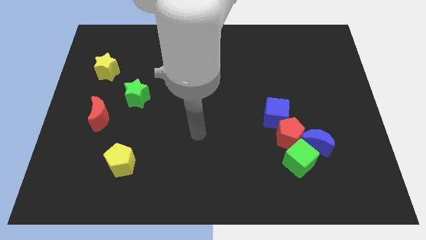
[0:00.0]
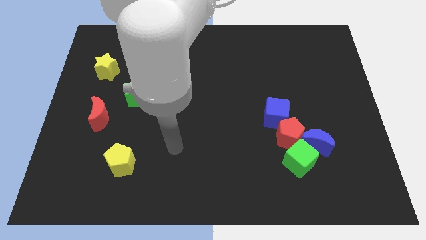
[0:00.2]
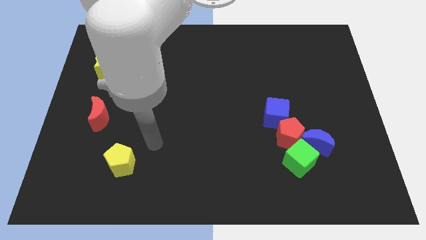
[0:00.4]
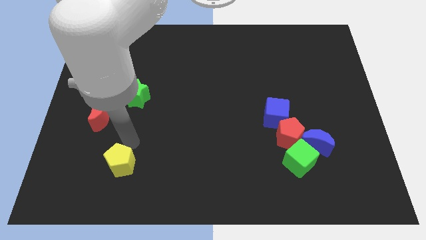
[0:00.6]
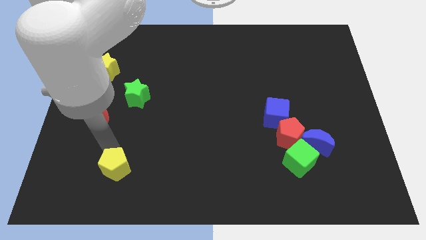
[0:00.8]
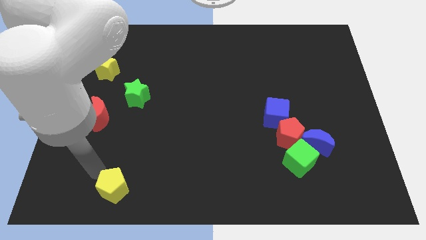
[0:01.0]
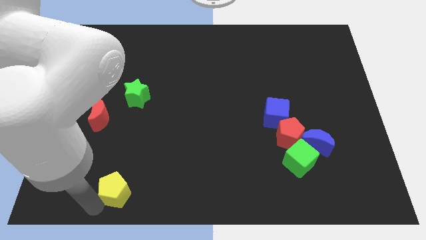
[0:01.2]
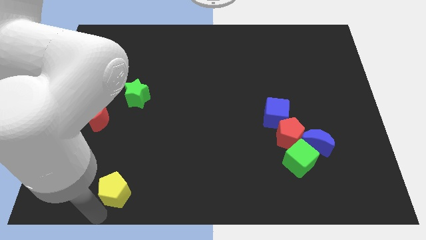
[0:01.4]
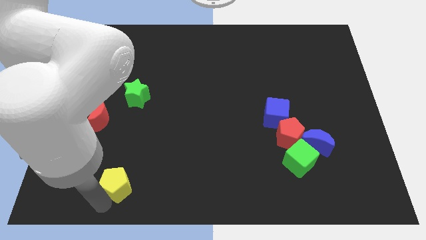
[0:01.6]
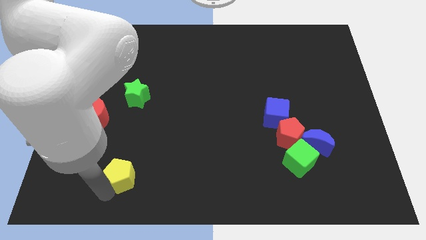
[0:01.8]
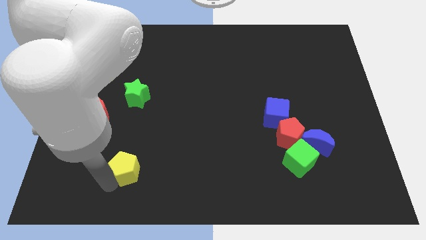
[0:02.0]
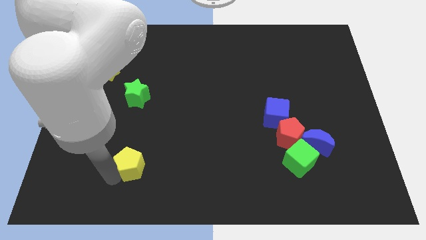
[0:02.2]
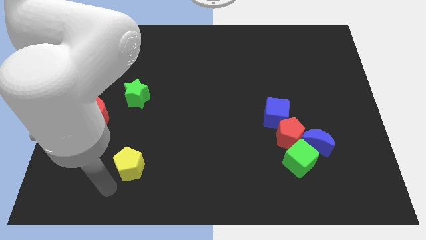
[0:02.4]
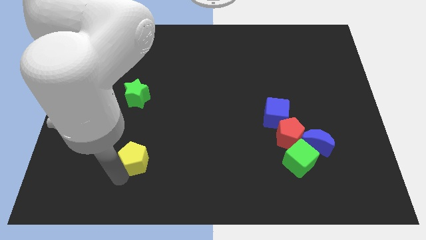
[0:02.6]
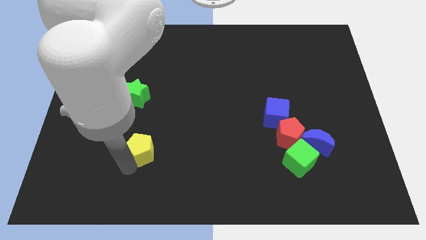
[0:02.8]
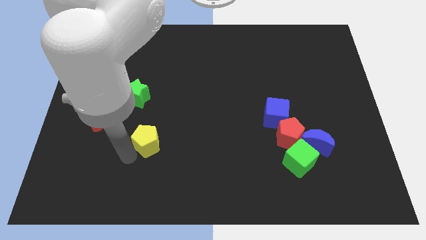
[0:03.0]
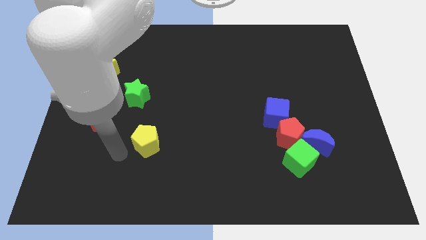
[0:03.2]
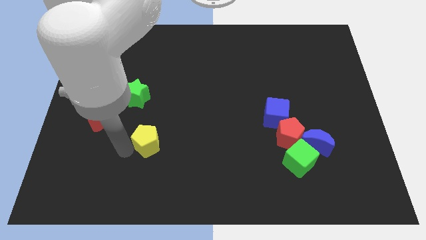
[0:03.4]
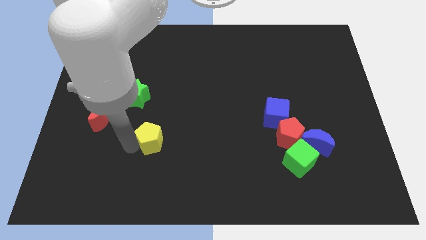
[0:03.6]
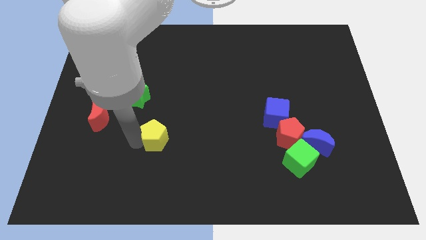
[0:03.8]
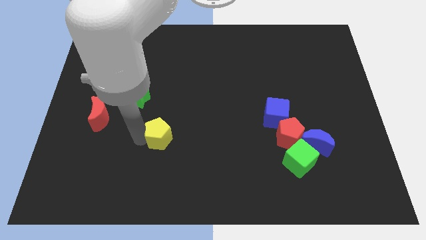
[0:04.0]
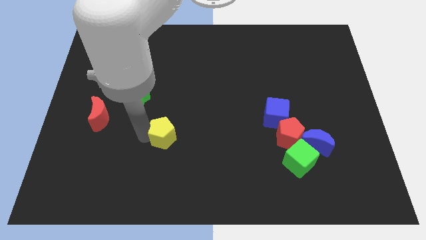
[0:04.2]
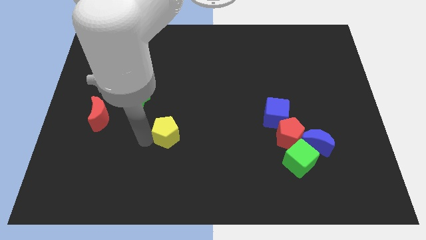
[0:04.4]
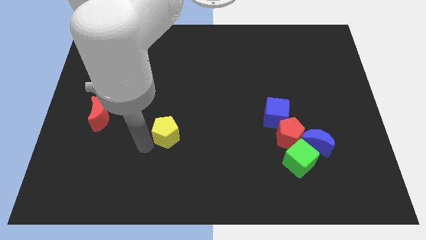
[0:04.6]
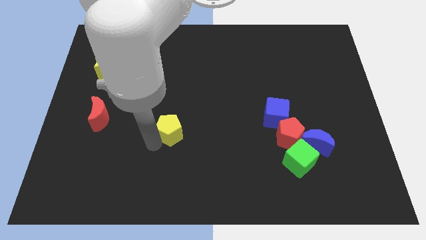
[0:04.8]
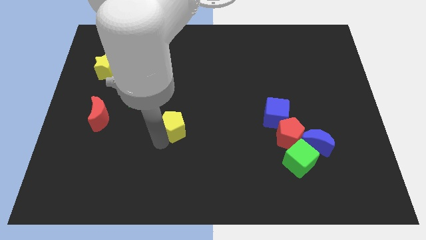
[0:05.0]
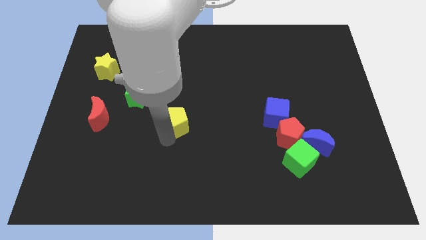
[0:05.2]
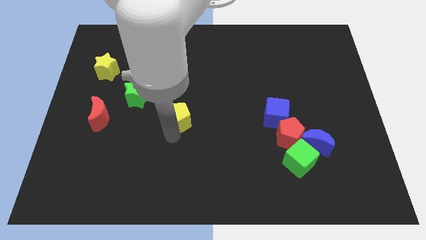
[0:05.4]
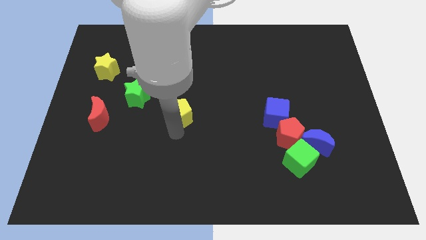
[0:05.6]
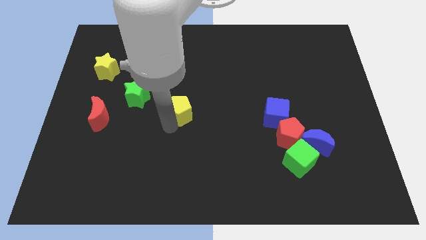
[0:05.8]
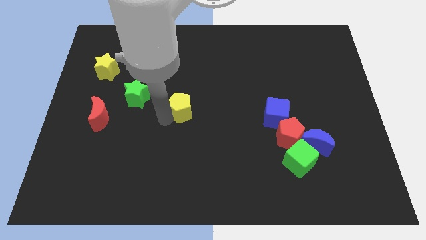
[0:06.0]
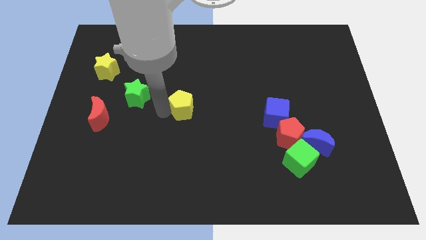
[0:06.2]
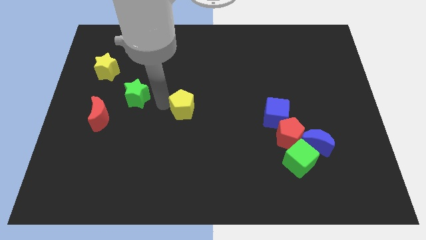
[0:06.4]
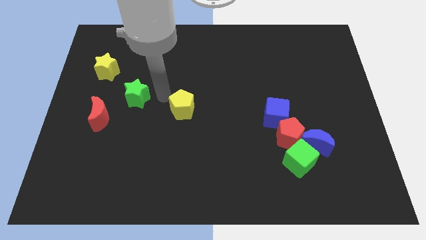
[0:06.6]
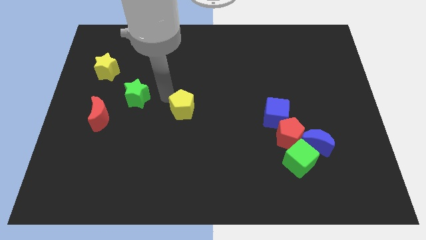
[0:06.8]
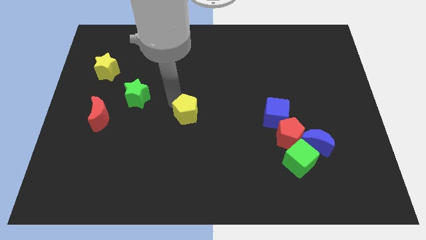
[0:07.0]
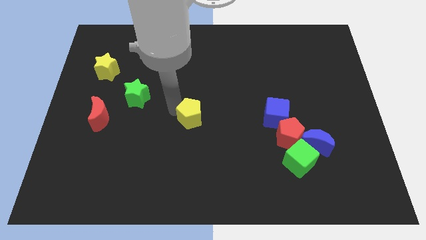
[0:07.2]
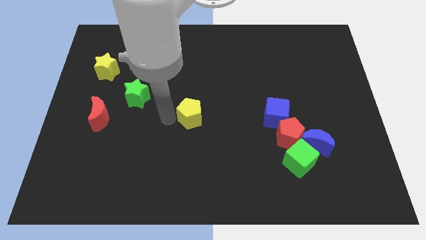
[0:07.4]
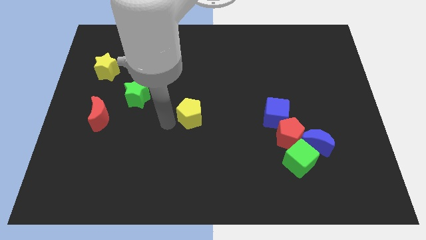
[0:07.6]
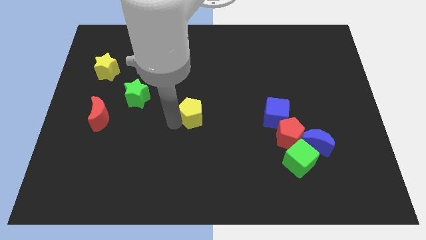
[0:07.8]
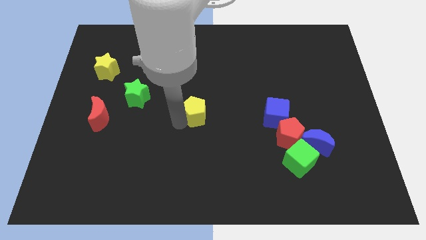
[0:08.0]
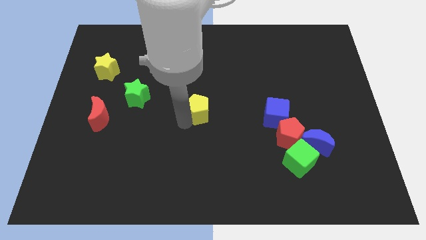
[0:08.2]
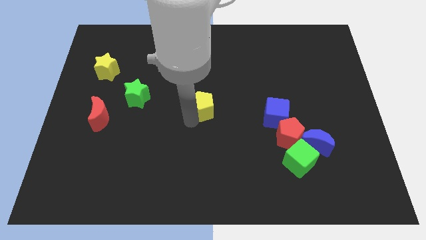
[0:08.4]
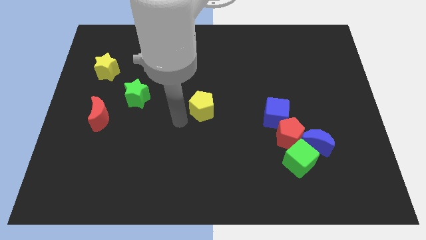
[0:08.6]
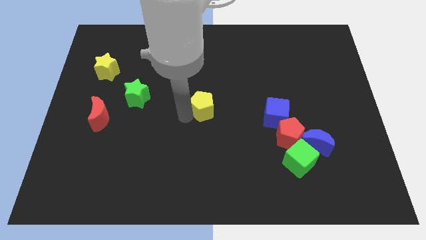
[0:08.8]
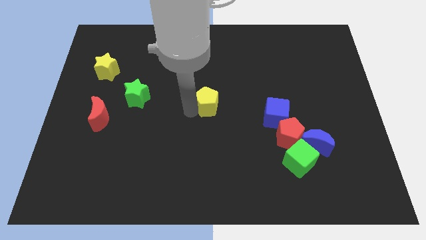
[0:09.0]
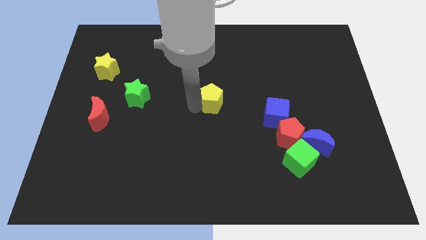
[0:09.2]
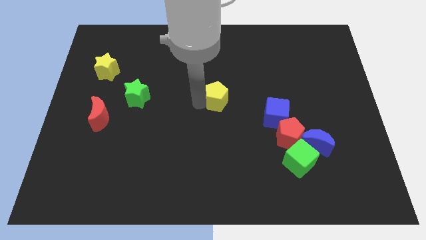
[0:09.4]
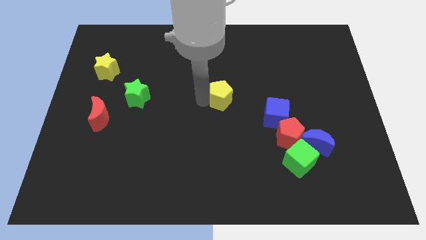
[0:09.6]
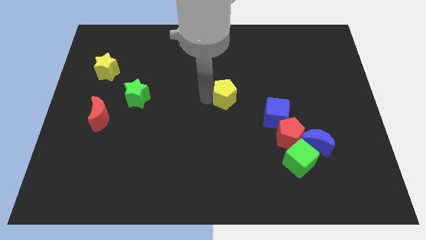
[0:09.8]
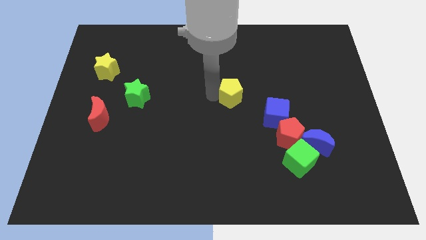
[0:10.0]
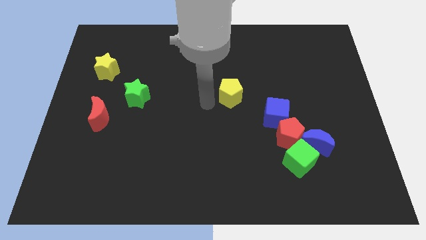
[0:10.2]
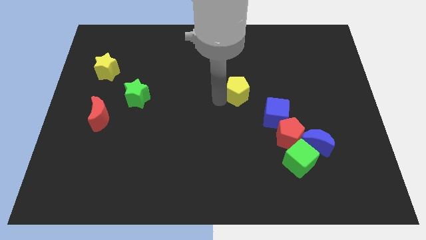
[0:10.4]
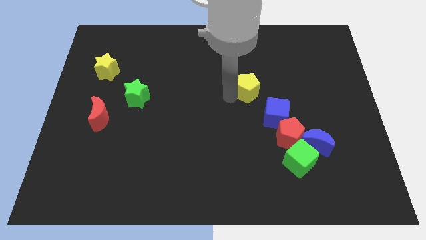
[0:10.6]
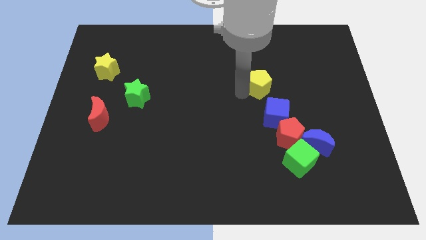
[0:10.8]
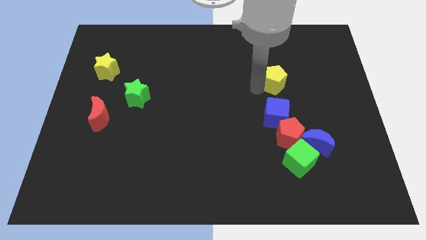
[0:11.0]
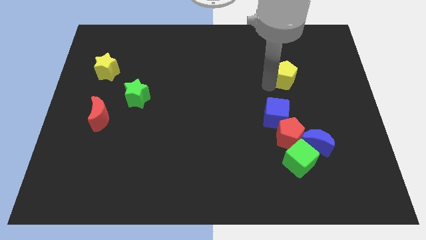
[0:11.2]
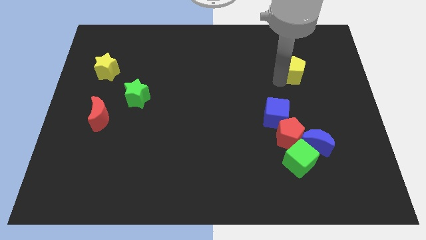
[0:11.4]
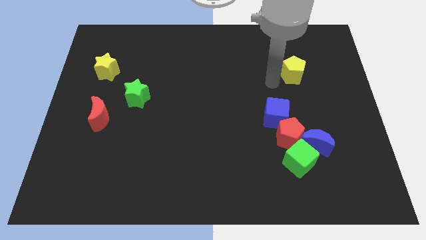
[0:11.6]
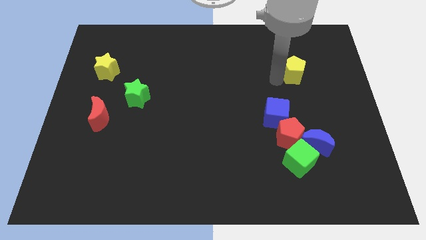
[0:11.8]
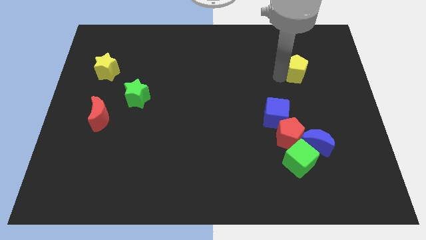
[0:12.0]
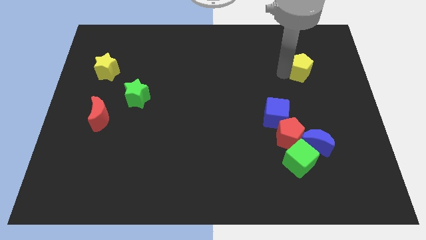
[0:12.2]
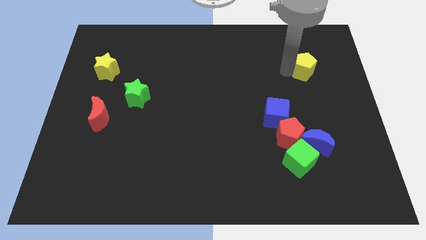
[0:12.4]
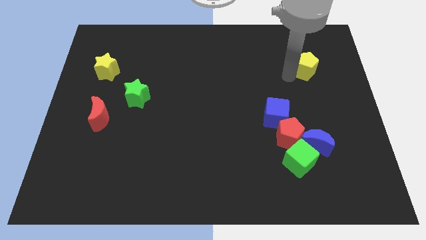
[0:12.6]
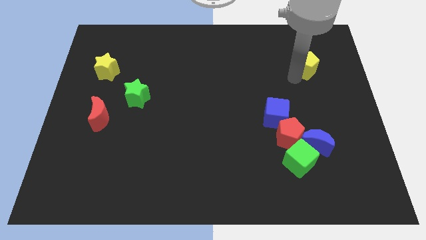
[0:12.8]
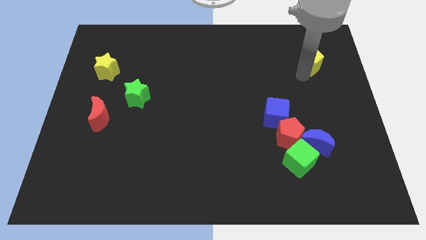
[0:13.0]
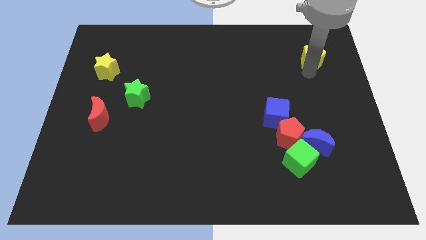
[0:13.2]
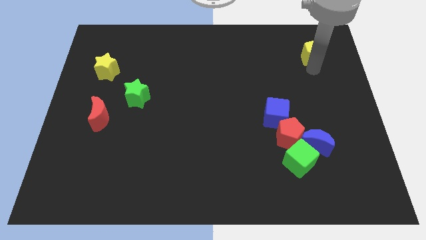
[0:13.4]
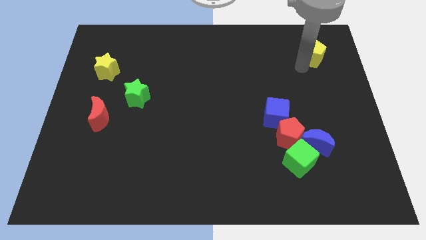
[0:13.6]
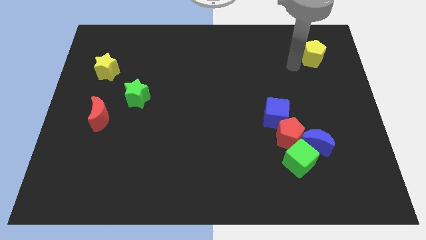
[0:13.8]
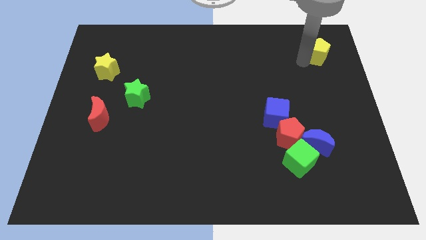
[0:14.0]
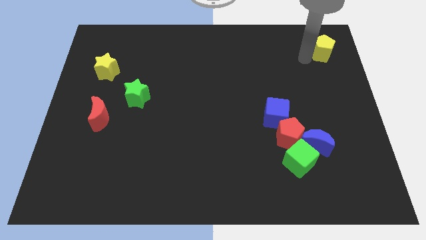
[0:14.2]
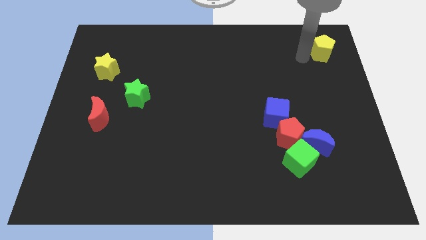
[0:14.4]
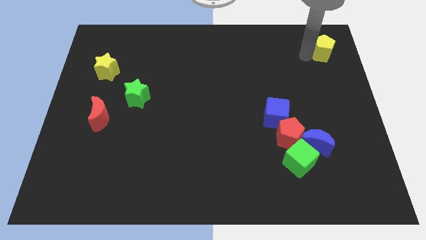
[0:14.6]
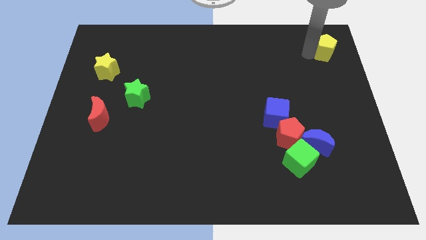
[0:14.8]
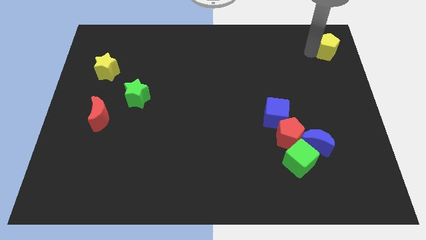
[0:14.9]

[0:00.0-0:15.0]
push the yellow pentagon to the top right of the board
